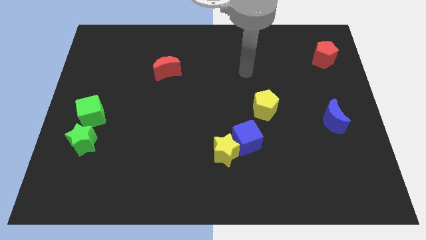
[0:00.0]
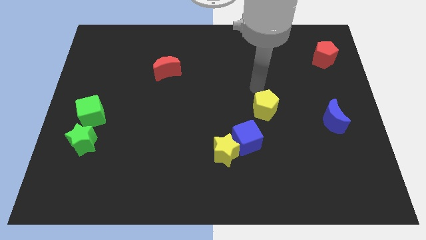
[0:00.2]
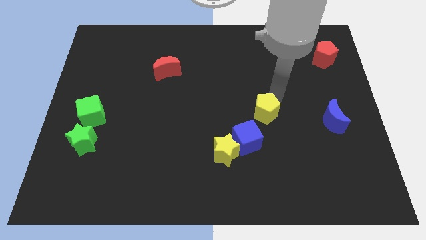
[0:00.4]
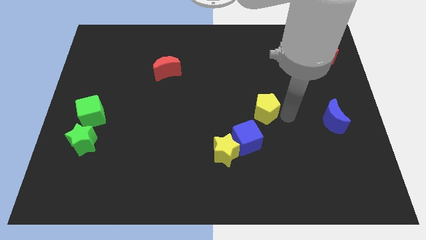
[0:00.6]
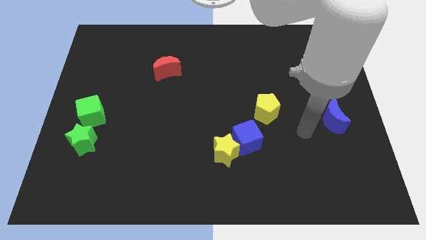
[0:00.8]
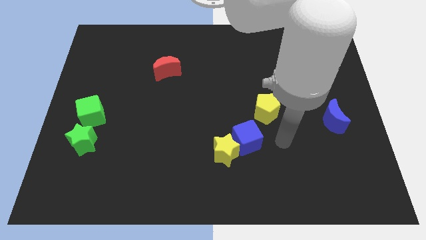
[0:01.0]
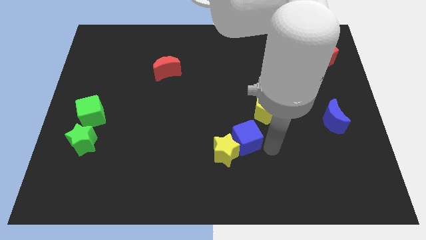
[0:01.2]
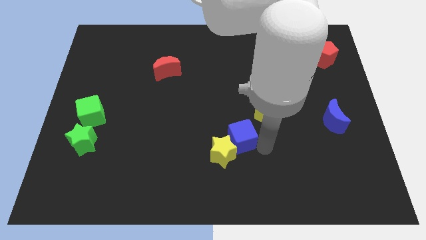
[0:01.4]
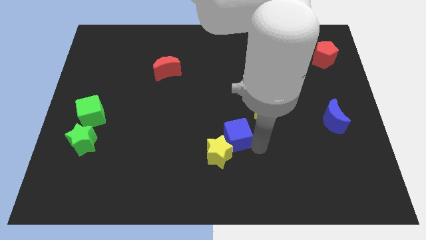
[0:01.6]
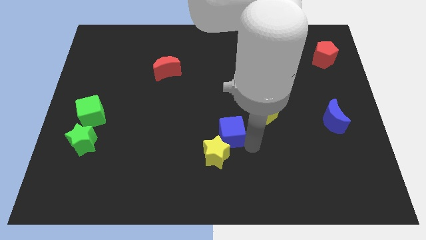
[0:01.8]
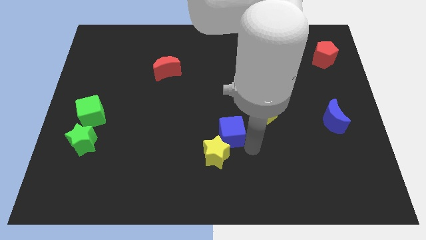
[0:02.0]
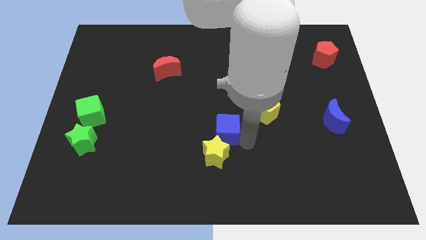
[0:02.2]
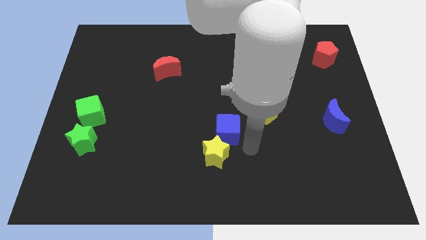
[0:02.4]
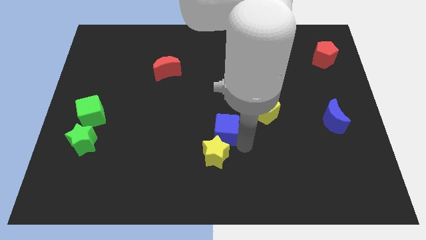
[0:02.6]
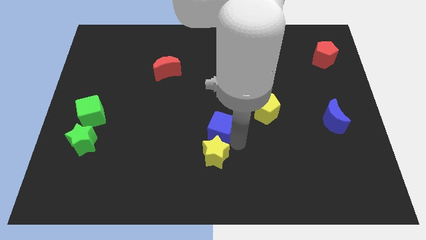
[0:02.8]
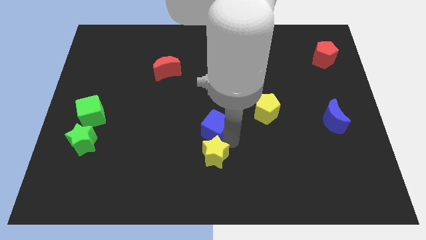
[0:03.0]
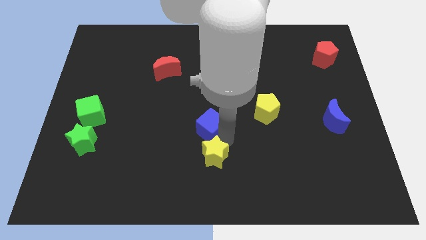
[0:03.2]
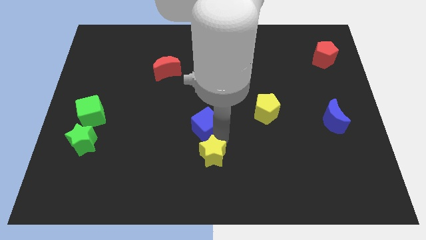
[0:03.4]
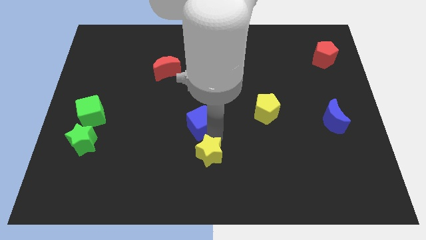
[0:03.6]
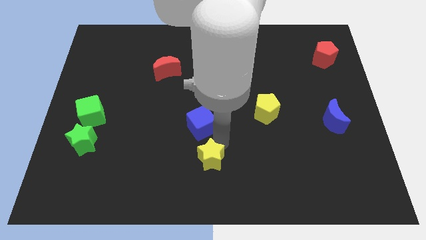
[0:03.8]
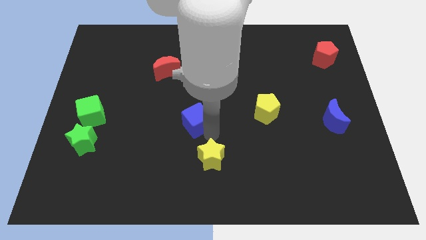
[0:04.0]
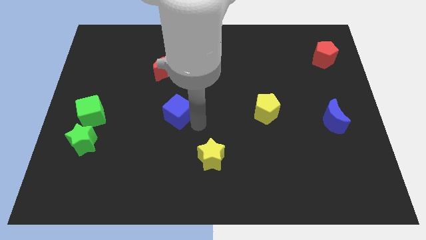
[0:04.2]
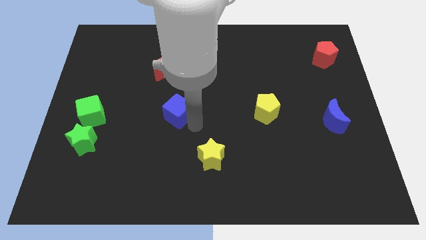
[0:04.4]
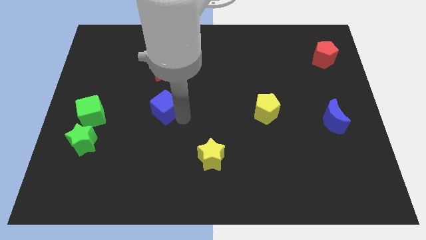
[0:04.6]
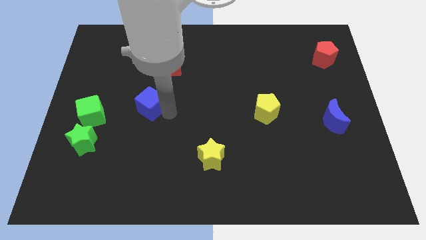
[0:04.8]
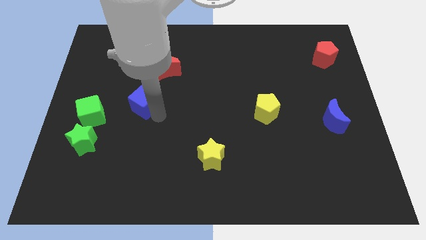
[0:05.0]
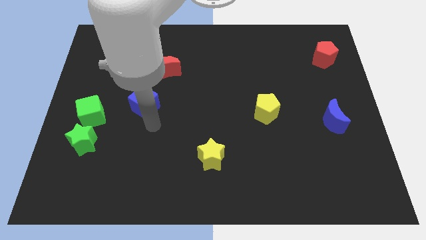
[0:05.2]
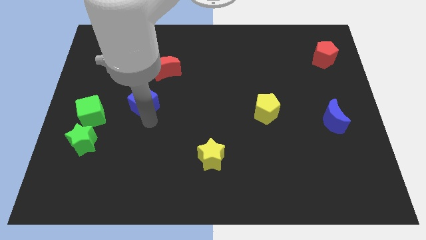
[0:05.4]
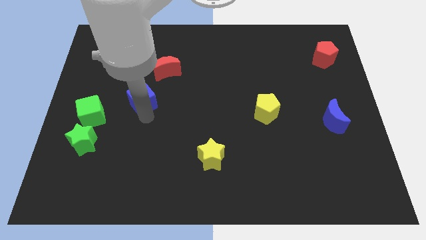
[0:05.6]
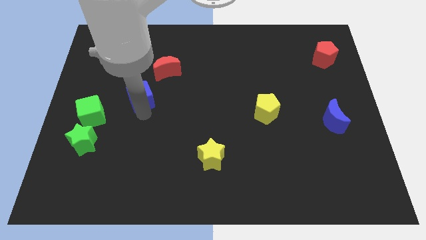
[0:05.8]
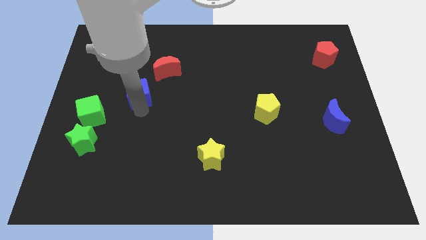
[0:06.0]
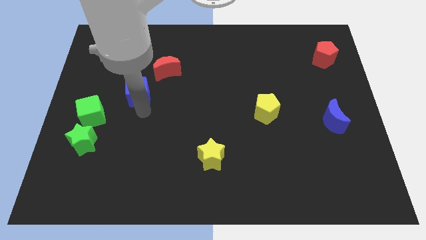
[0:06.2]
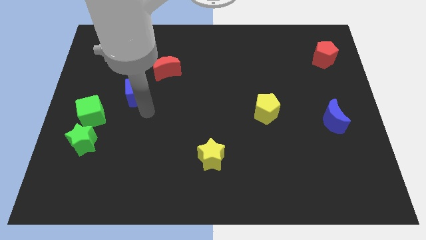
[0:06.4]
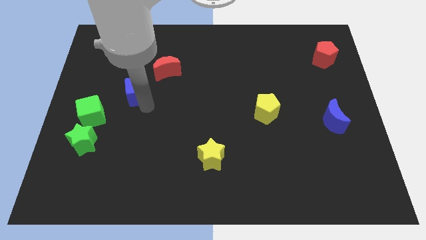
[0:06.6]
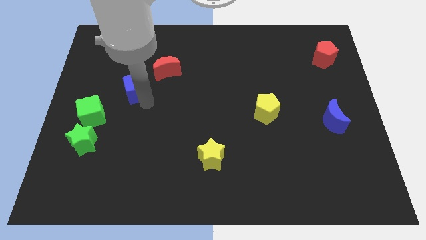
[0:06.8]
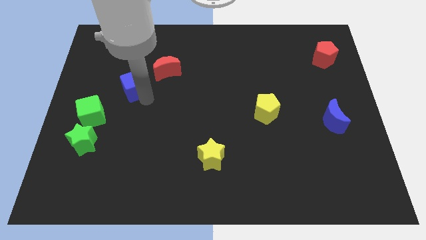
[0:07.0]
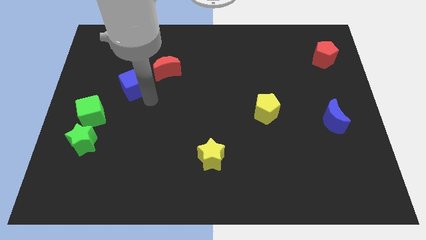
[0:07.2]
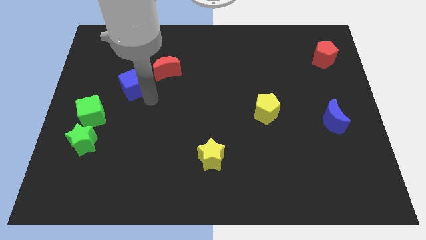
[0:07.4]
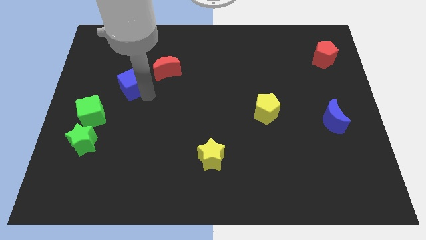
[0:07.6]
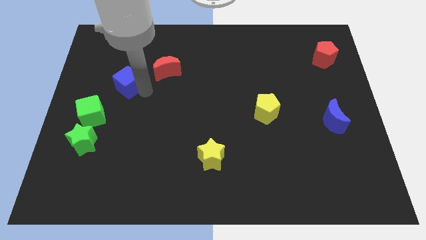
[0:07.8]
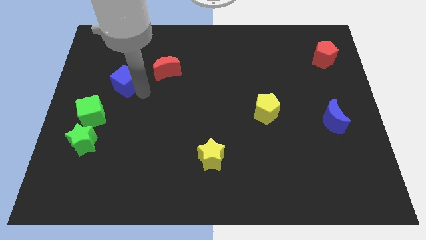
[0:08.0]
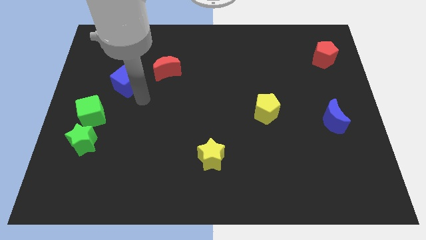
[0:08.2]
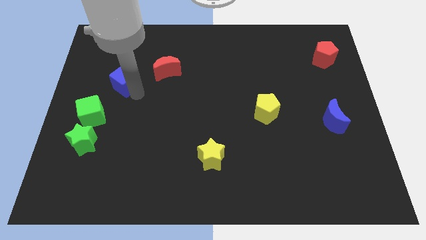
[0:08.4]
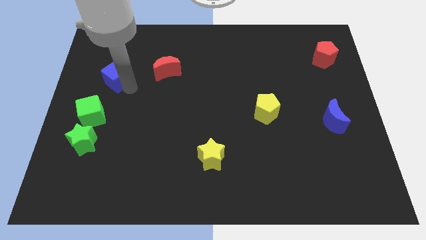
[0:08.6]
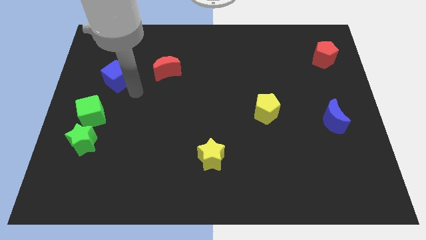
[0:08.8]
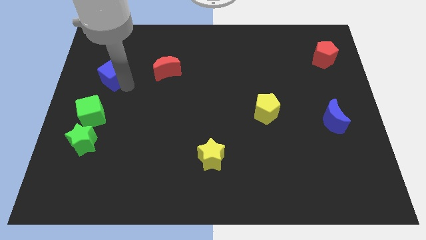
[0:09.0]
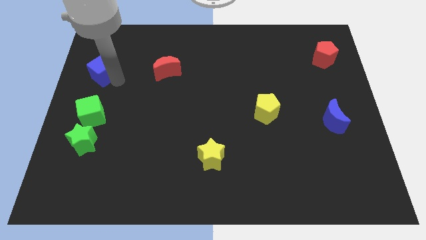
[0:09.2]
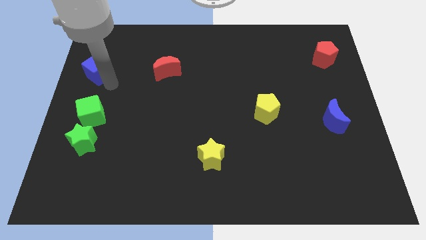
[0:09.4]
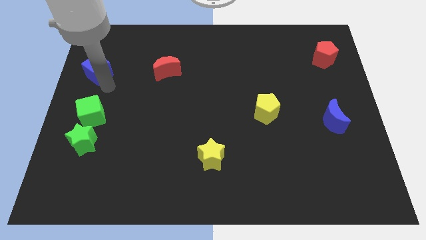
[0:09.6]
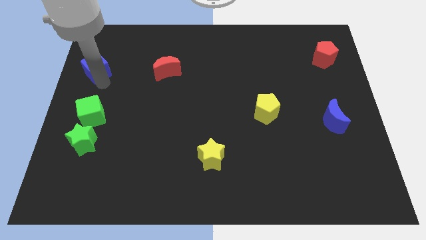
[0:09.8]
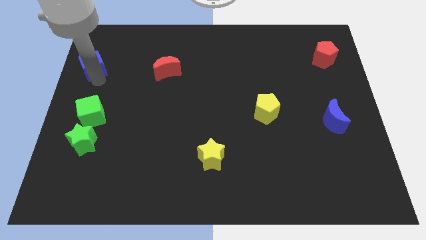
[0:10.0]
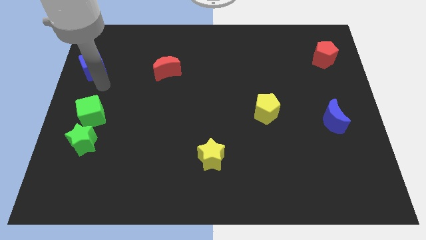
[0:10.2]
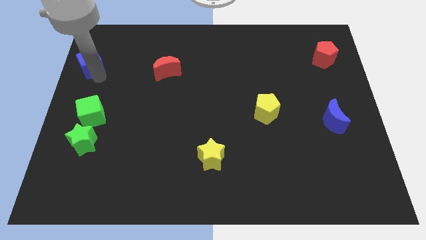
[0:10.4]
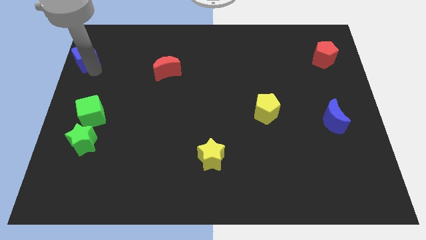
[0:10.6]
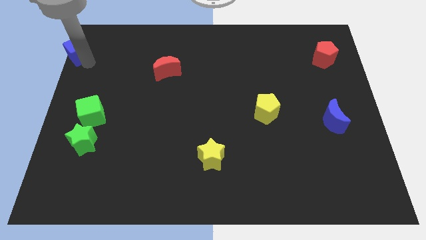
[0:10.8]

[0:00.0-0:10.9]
push the blue cube to the top left of the board

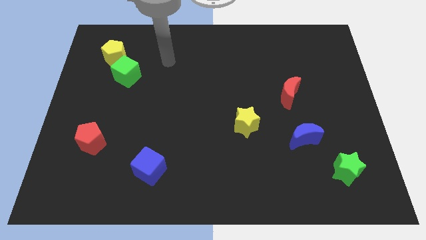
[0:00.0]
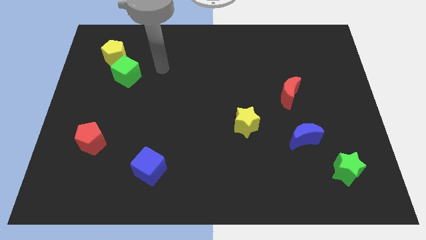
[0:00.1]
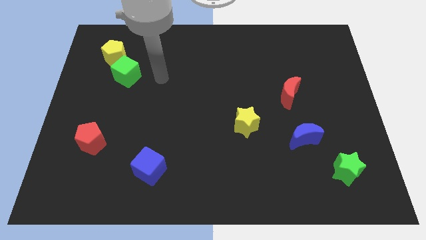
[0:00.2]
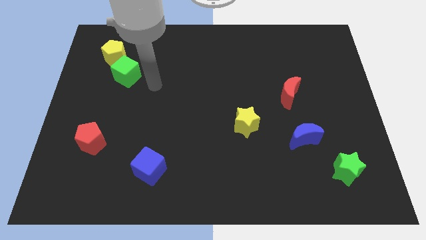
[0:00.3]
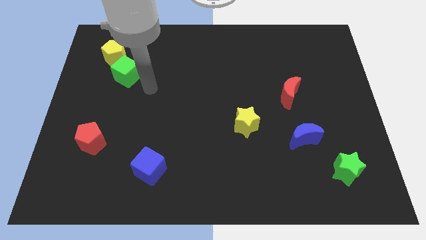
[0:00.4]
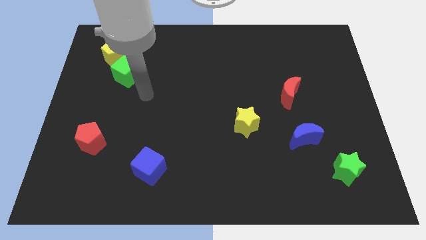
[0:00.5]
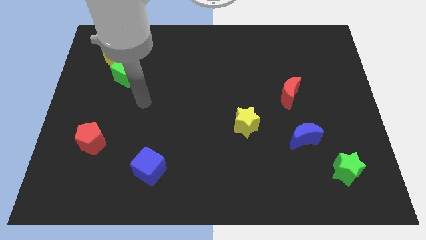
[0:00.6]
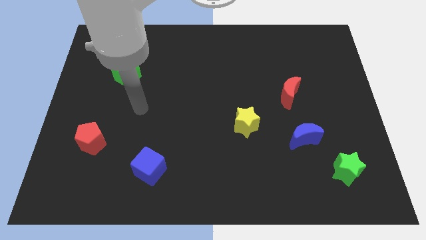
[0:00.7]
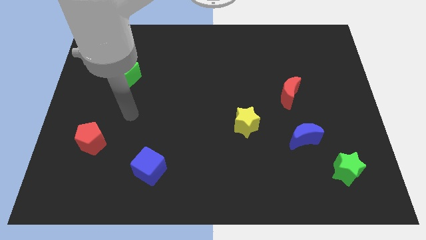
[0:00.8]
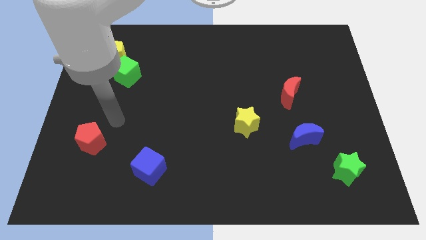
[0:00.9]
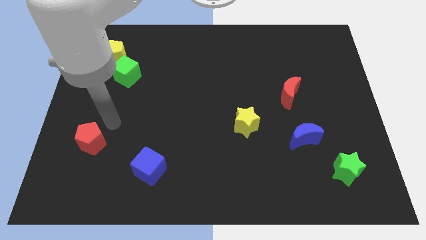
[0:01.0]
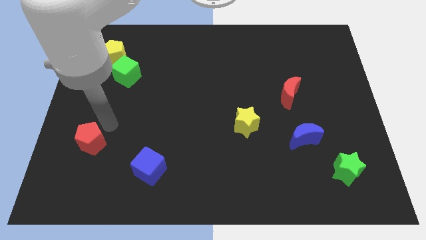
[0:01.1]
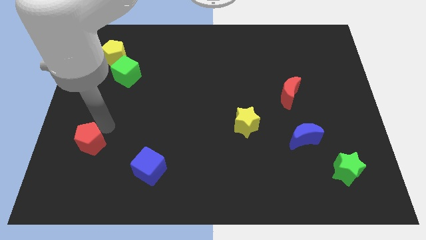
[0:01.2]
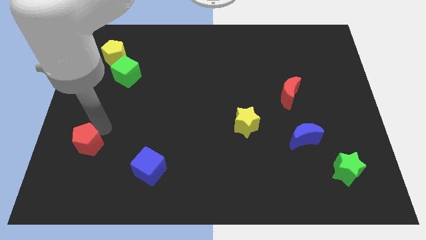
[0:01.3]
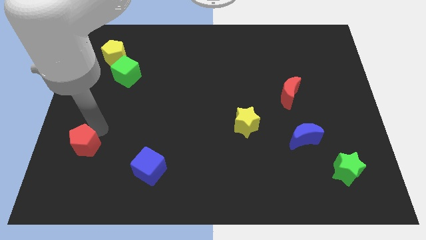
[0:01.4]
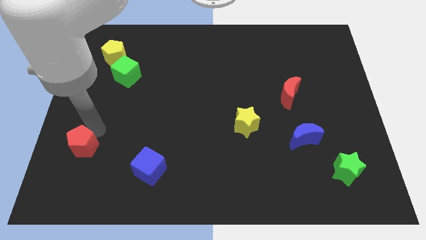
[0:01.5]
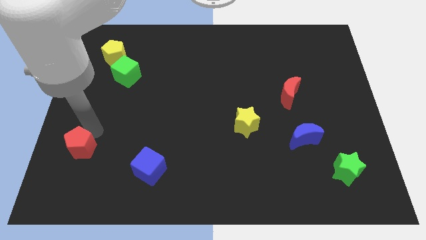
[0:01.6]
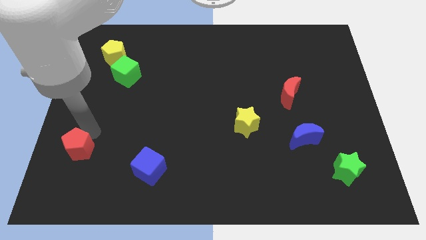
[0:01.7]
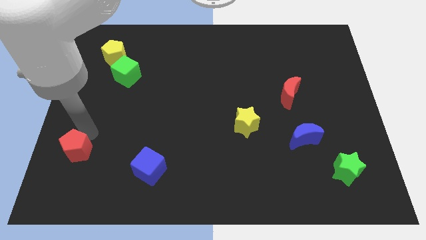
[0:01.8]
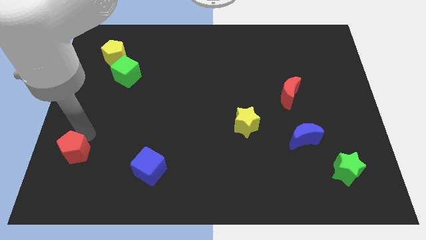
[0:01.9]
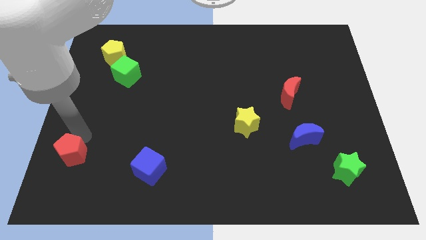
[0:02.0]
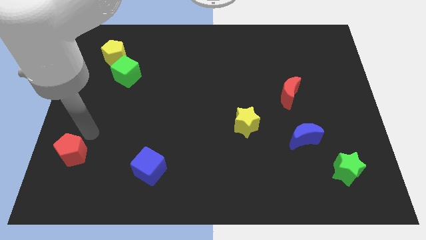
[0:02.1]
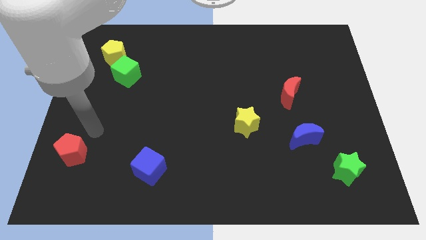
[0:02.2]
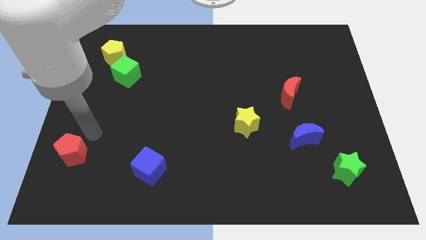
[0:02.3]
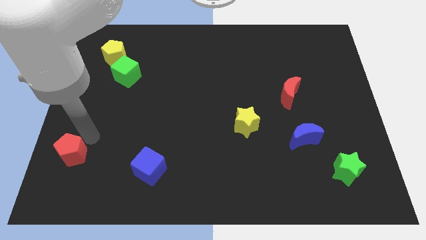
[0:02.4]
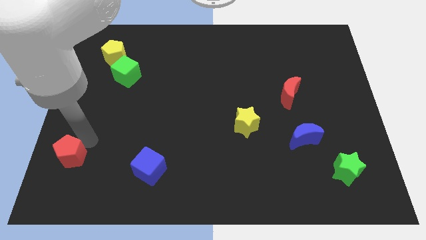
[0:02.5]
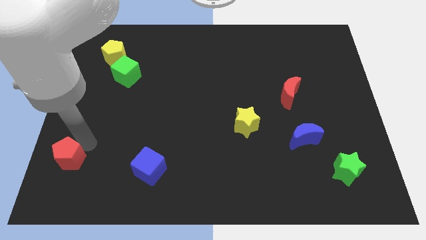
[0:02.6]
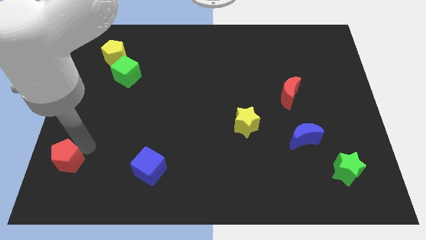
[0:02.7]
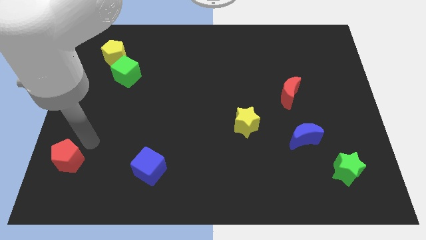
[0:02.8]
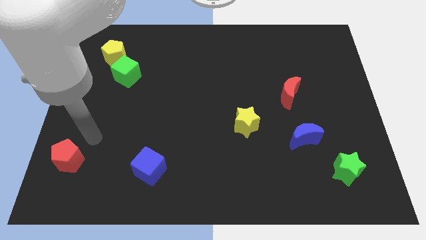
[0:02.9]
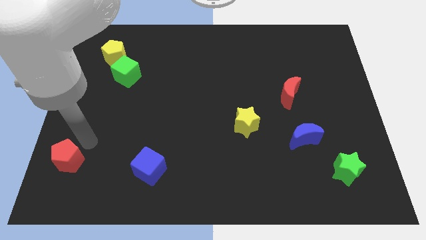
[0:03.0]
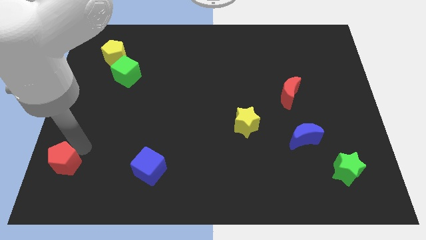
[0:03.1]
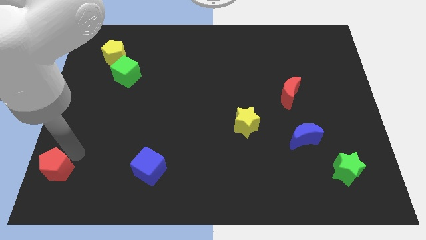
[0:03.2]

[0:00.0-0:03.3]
move the red pentagon to the lower left corner
